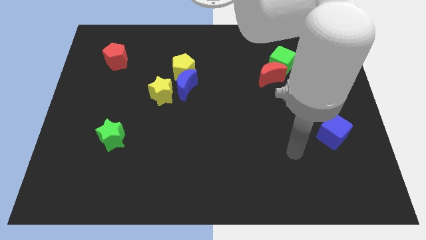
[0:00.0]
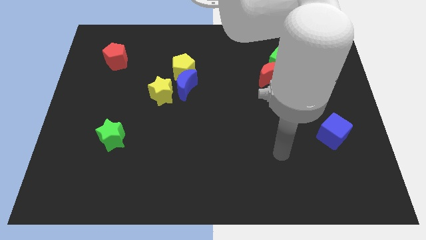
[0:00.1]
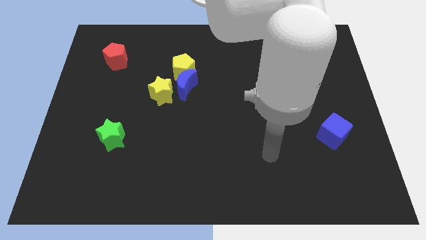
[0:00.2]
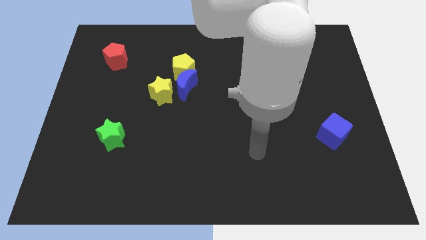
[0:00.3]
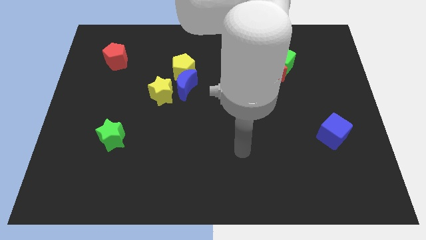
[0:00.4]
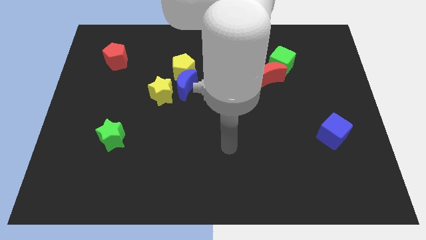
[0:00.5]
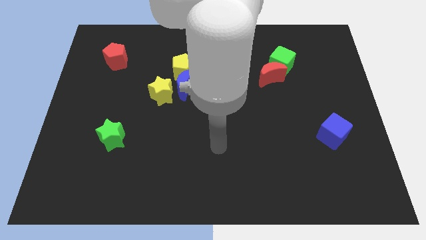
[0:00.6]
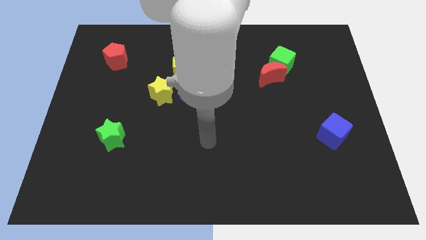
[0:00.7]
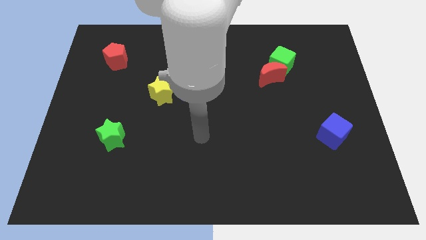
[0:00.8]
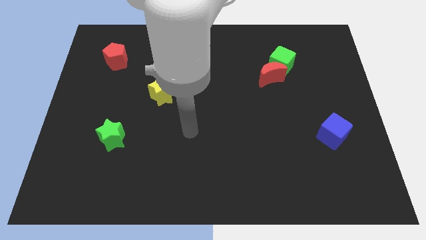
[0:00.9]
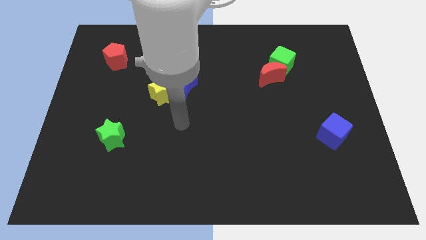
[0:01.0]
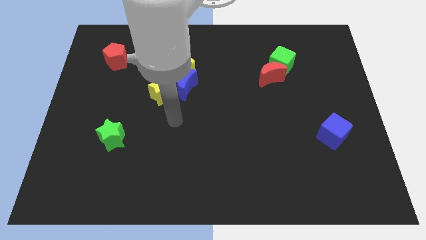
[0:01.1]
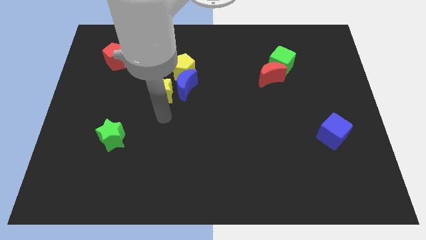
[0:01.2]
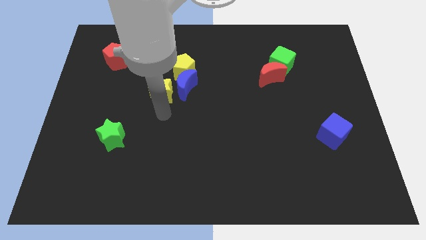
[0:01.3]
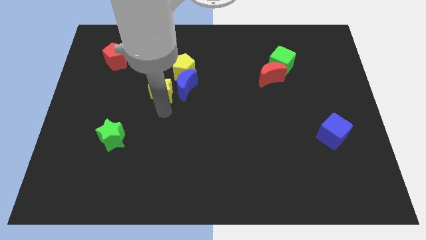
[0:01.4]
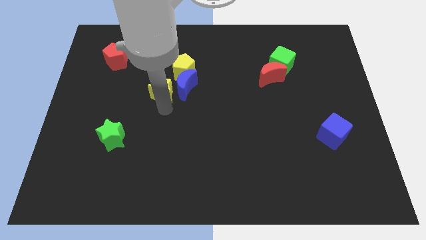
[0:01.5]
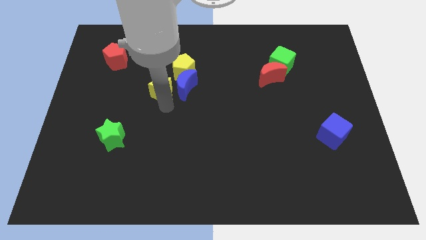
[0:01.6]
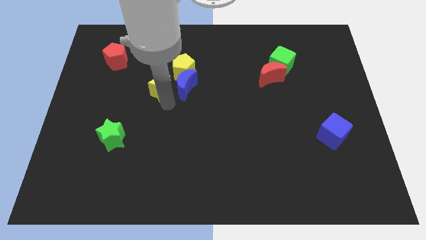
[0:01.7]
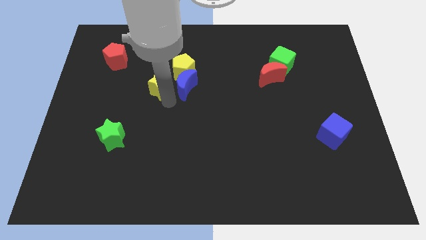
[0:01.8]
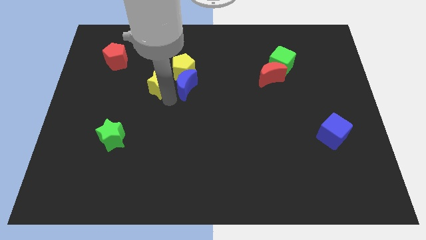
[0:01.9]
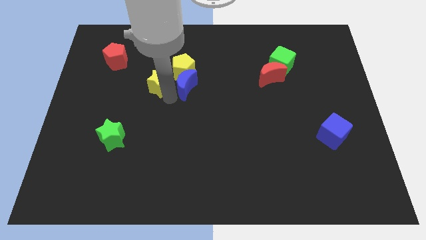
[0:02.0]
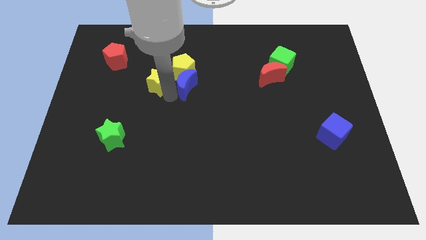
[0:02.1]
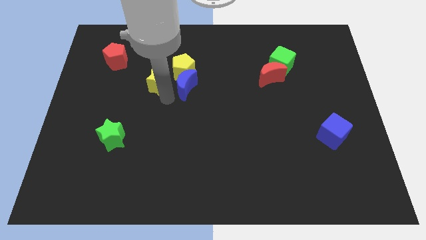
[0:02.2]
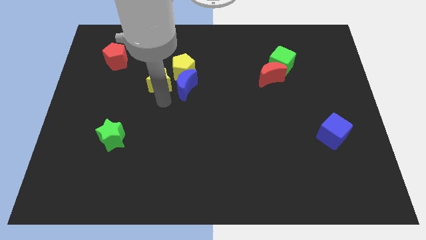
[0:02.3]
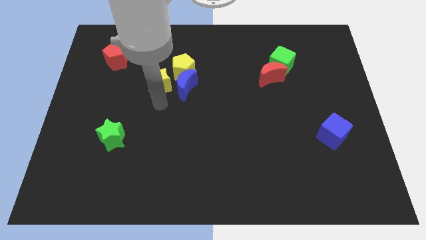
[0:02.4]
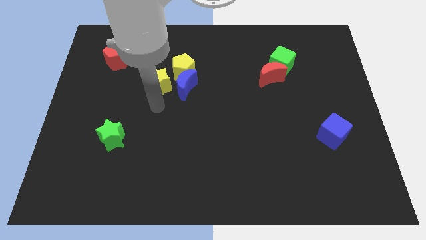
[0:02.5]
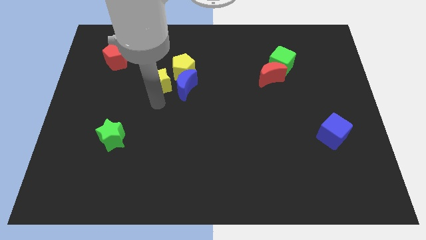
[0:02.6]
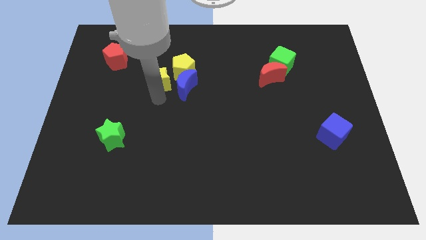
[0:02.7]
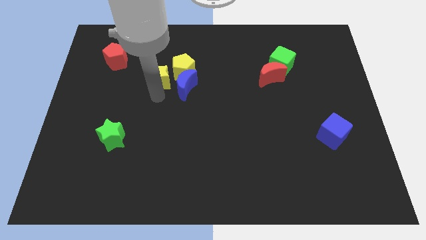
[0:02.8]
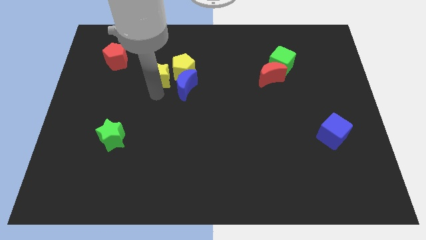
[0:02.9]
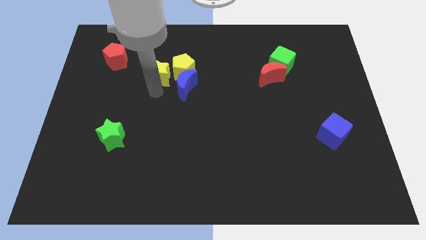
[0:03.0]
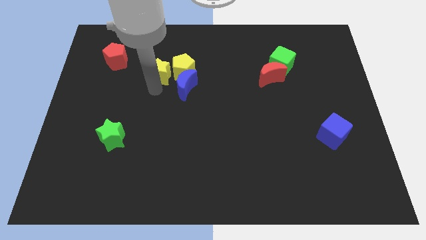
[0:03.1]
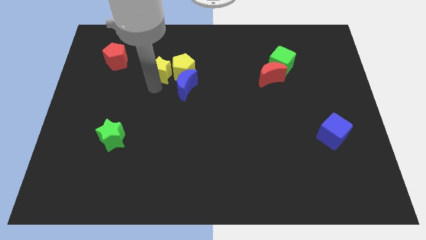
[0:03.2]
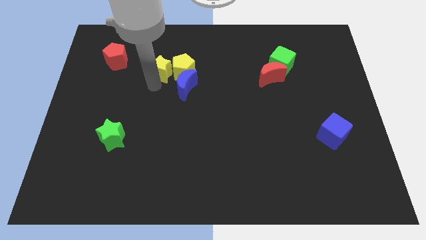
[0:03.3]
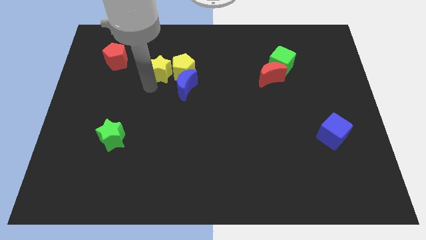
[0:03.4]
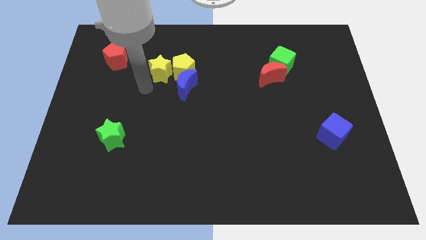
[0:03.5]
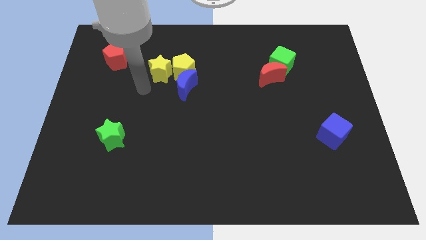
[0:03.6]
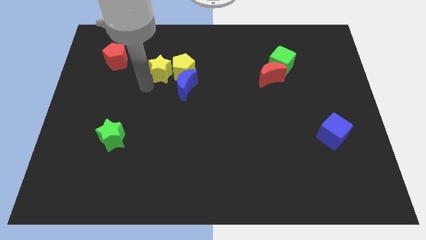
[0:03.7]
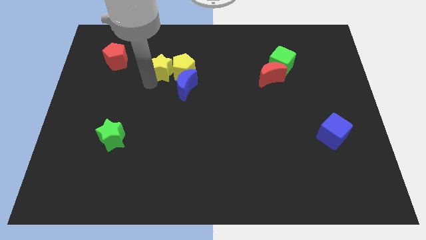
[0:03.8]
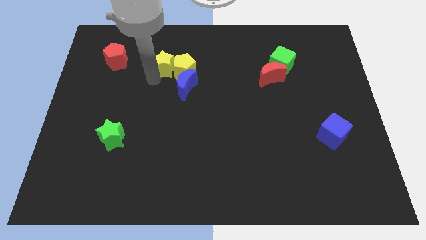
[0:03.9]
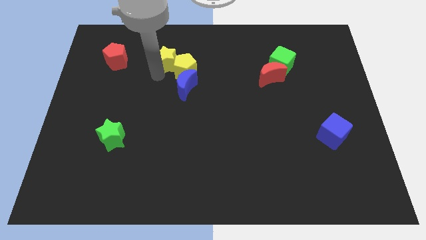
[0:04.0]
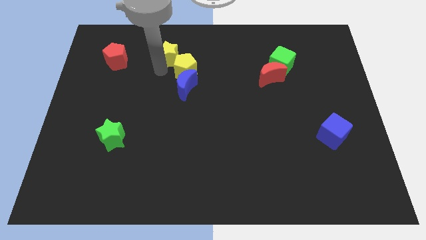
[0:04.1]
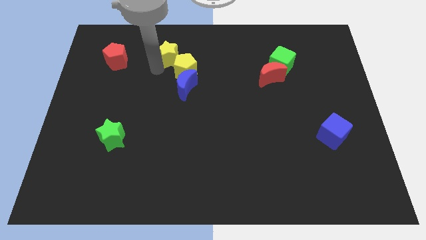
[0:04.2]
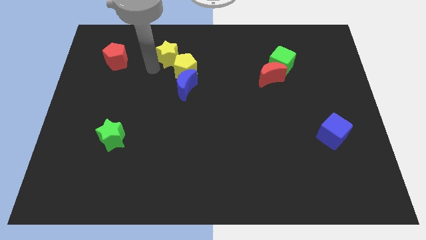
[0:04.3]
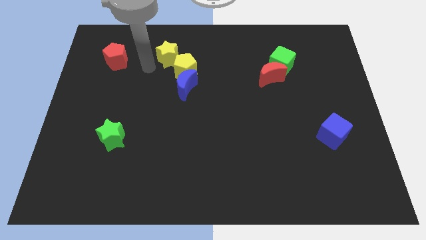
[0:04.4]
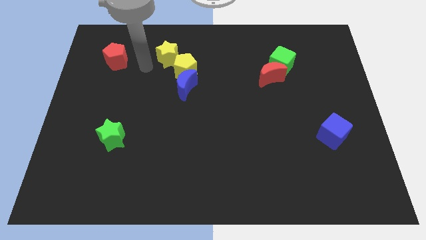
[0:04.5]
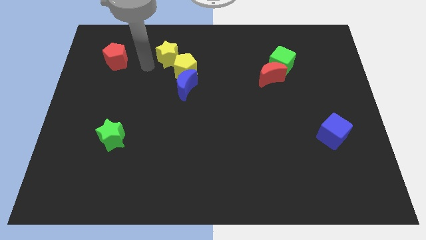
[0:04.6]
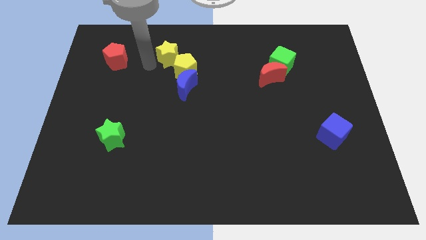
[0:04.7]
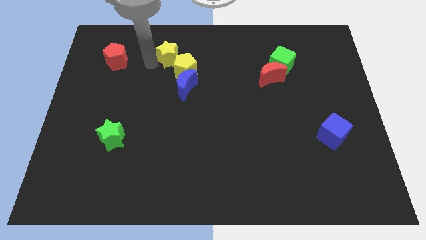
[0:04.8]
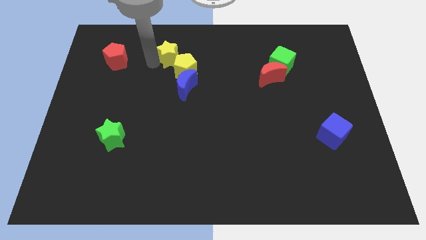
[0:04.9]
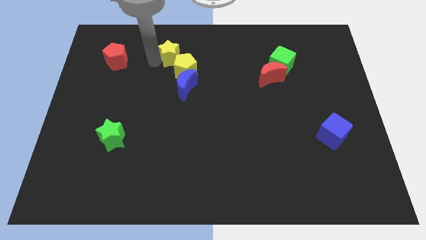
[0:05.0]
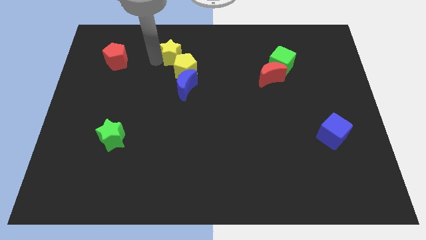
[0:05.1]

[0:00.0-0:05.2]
slightly push the yellow star upwards and right

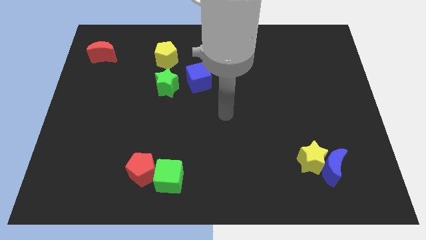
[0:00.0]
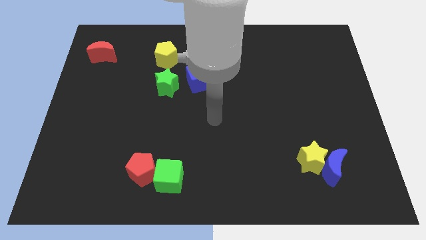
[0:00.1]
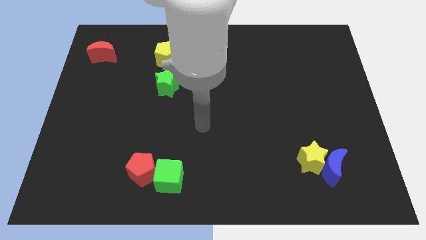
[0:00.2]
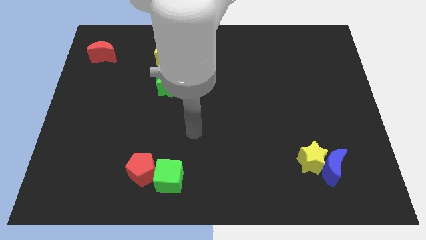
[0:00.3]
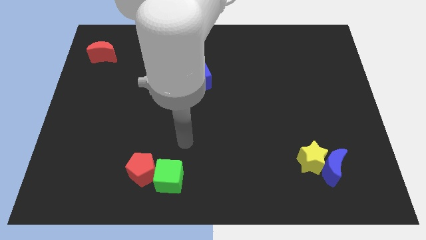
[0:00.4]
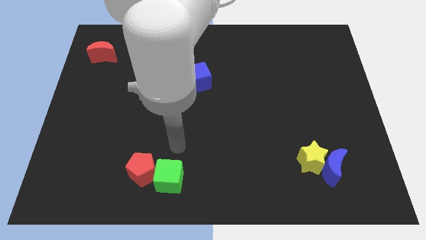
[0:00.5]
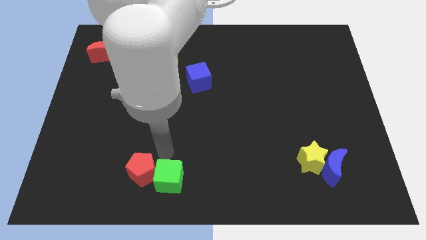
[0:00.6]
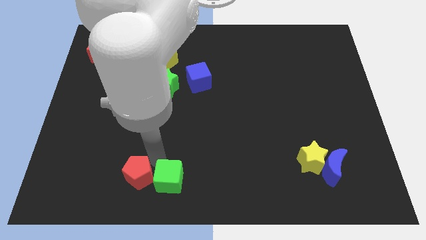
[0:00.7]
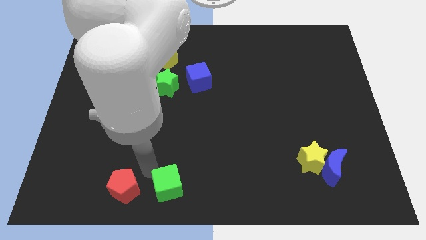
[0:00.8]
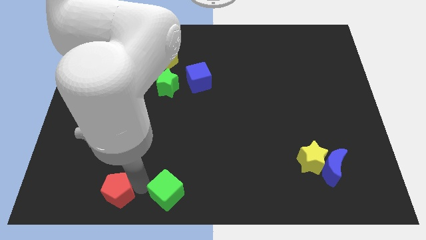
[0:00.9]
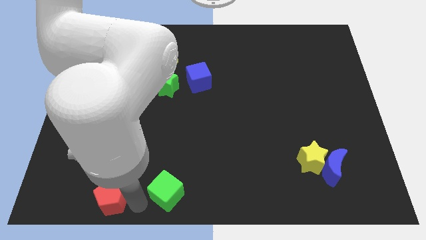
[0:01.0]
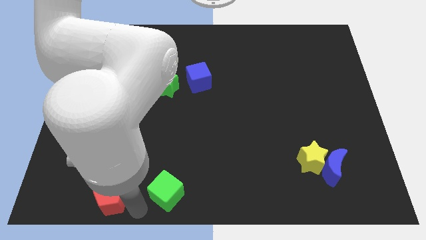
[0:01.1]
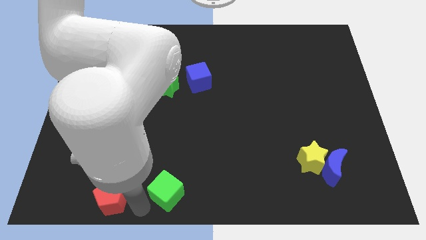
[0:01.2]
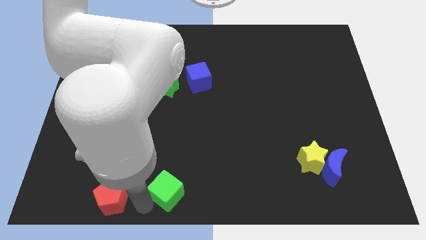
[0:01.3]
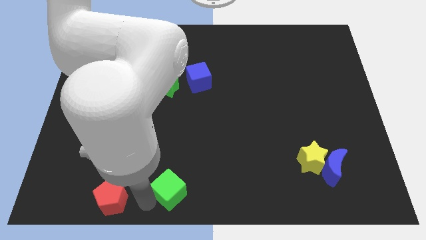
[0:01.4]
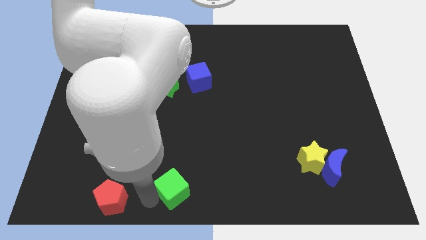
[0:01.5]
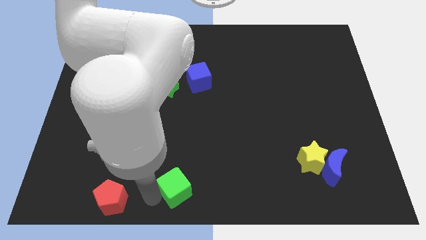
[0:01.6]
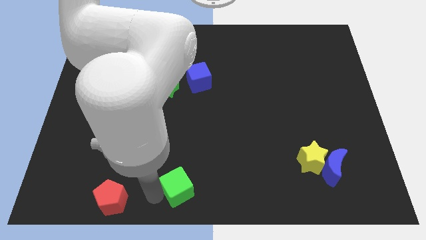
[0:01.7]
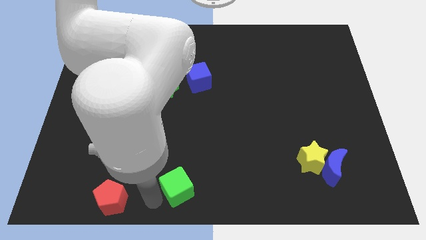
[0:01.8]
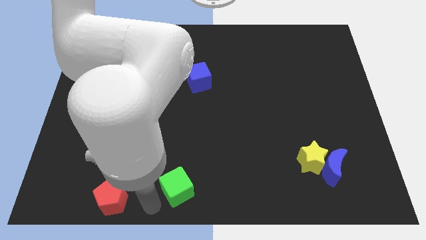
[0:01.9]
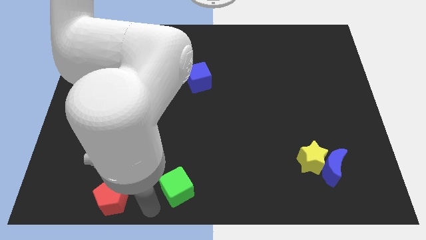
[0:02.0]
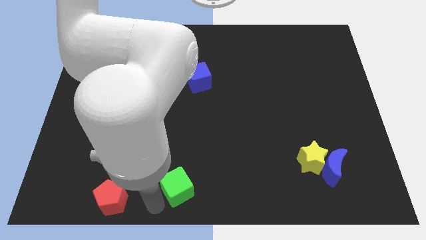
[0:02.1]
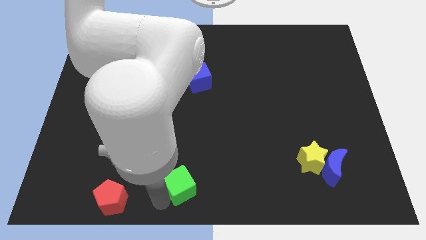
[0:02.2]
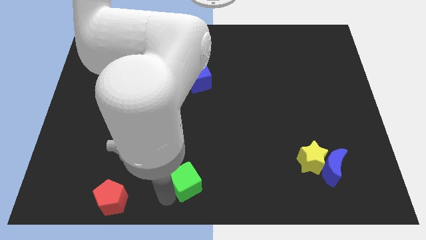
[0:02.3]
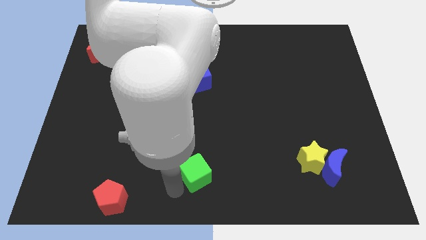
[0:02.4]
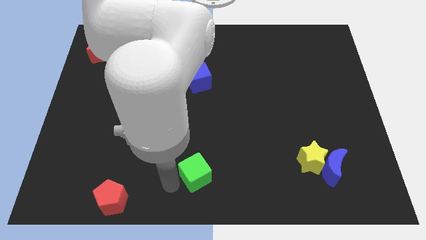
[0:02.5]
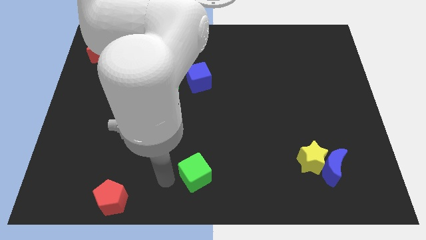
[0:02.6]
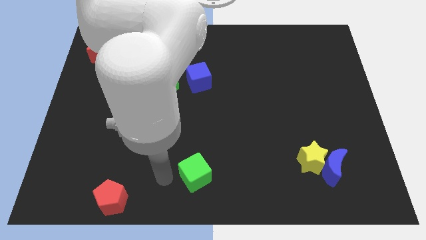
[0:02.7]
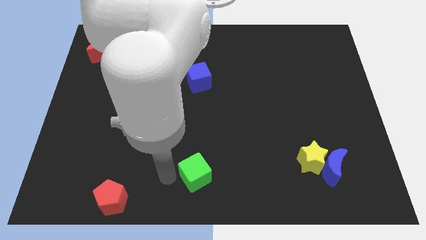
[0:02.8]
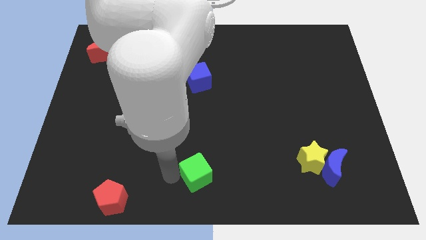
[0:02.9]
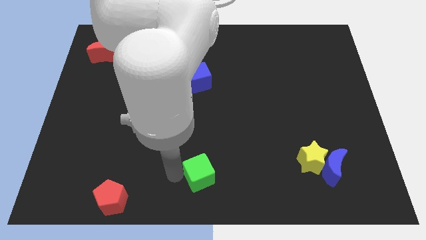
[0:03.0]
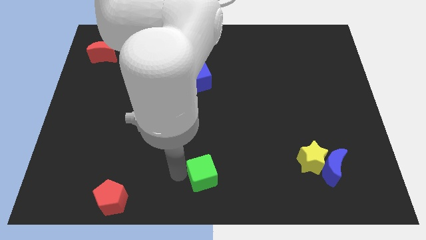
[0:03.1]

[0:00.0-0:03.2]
slightly move the green cube to the right

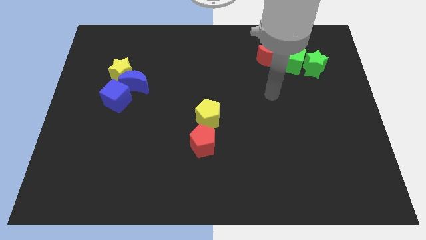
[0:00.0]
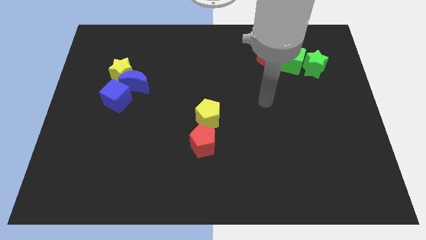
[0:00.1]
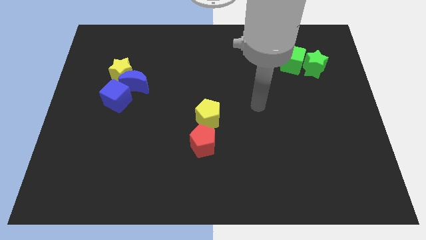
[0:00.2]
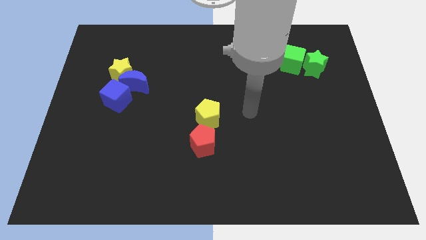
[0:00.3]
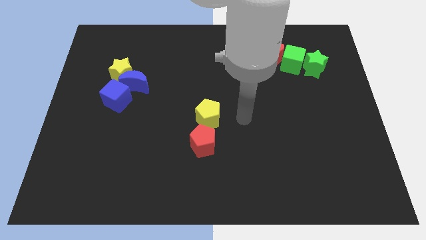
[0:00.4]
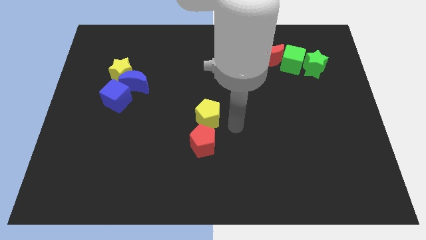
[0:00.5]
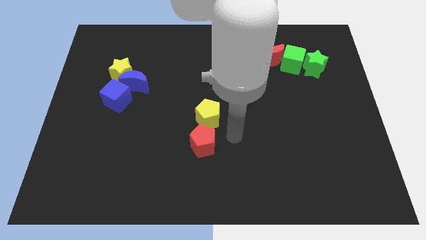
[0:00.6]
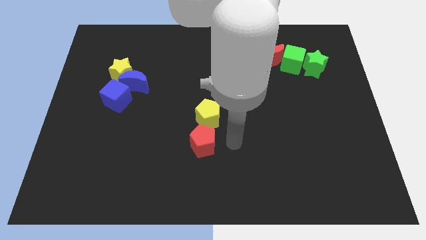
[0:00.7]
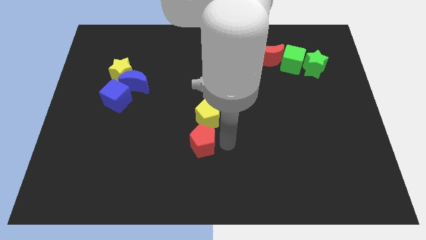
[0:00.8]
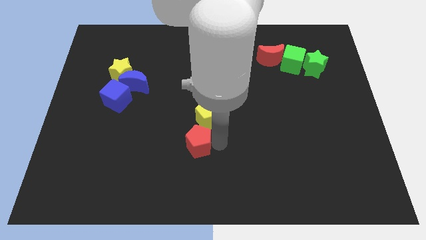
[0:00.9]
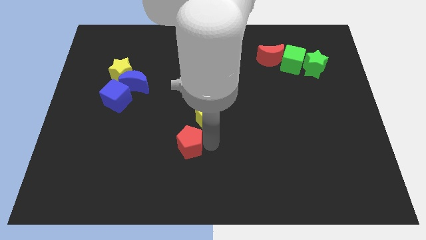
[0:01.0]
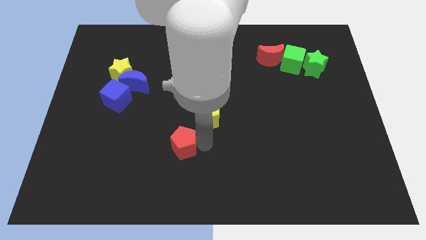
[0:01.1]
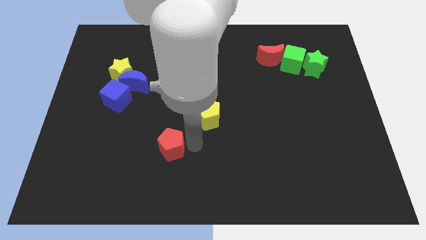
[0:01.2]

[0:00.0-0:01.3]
move the red pentagon left a little
